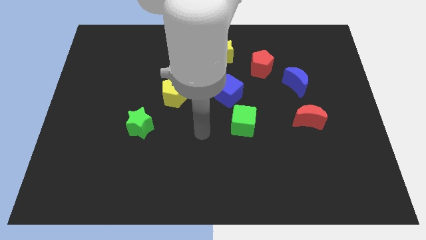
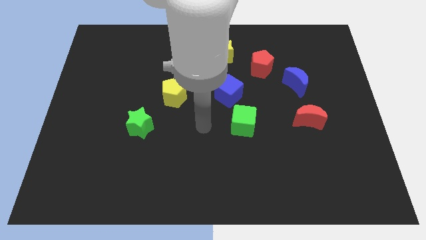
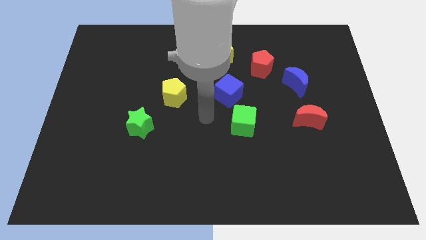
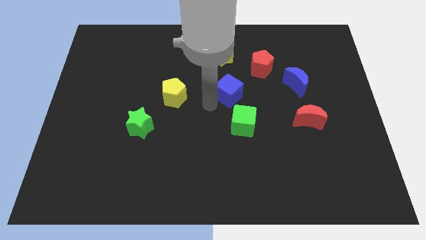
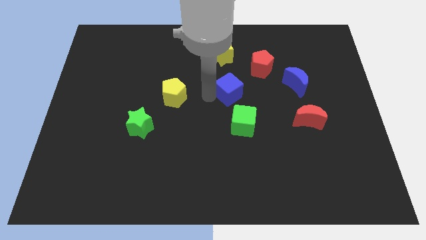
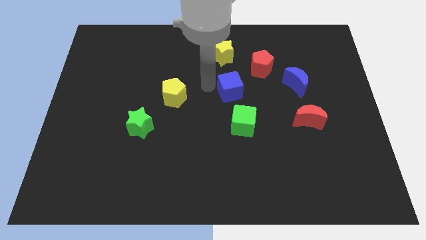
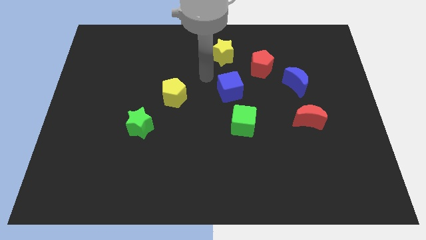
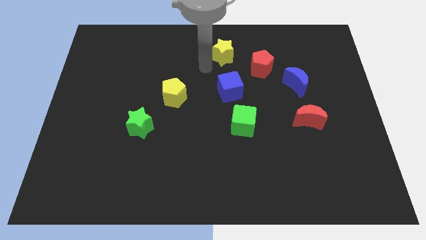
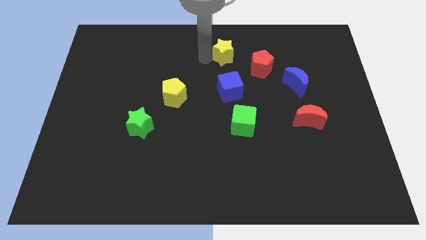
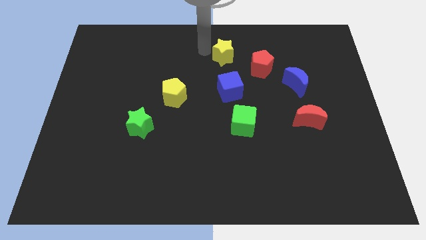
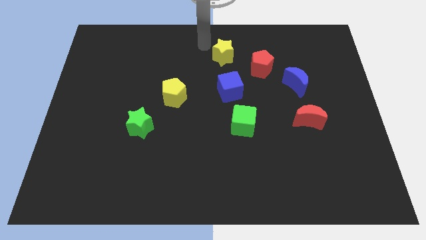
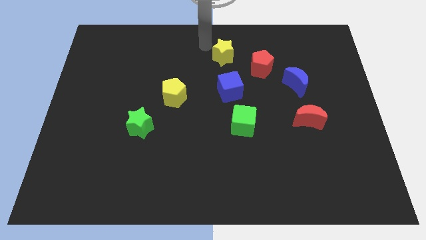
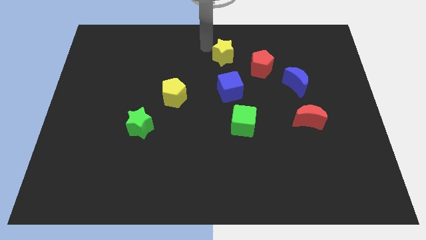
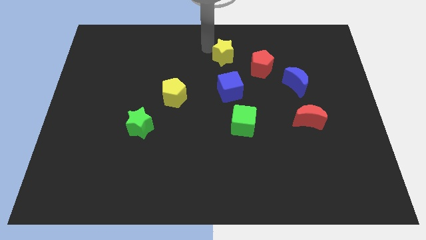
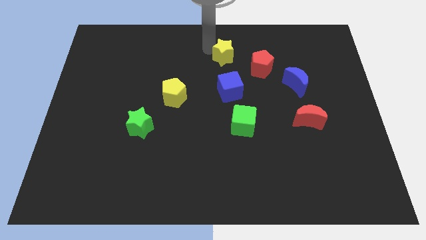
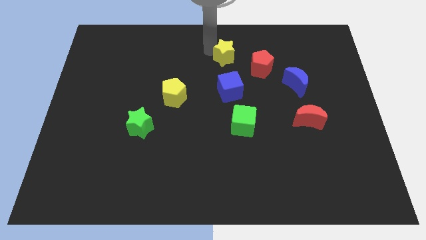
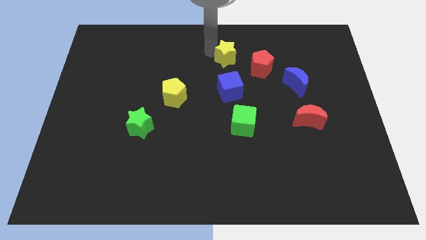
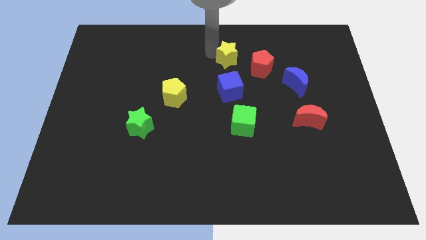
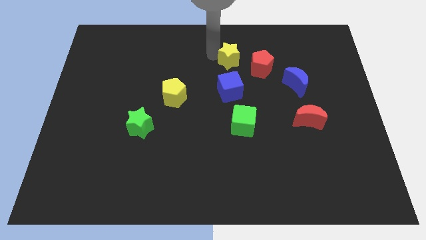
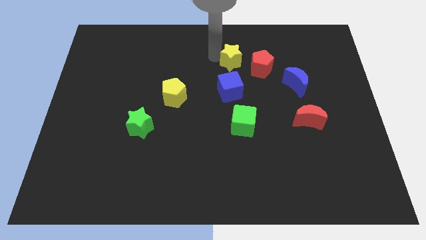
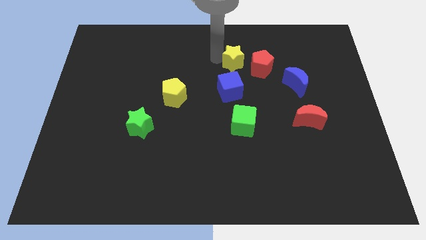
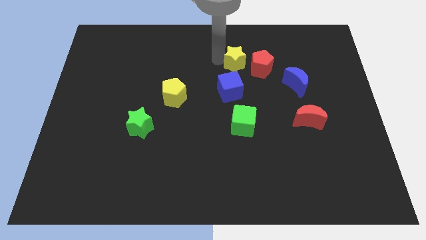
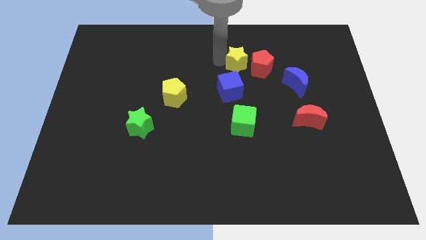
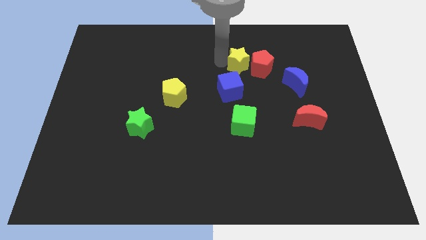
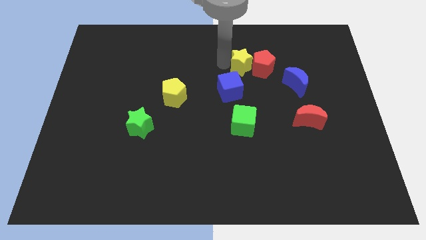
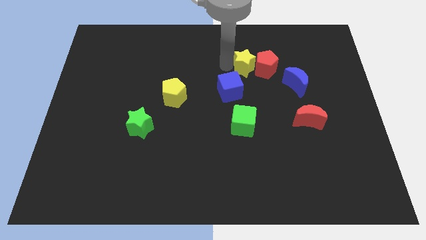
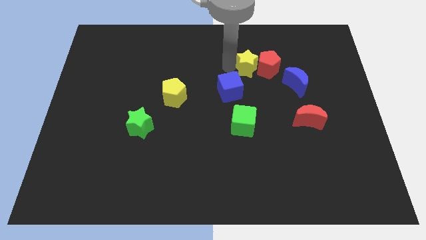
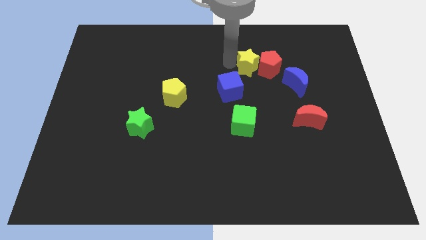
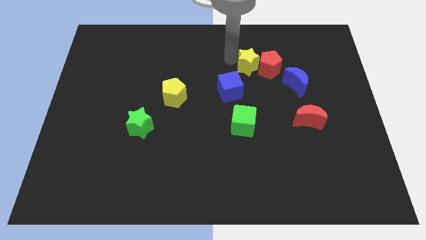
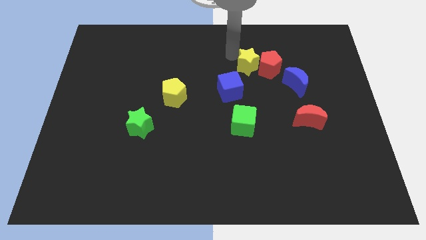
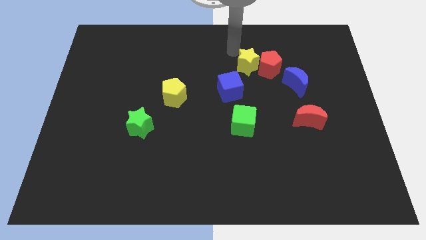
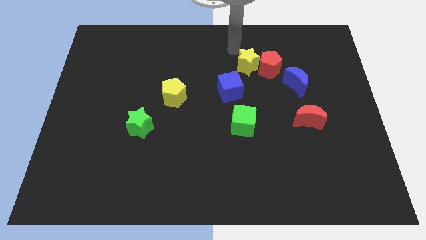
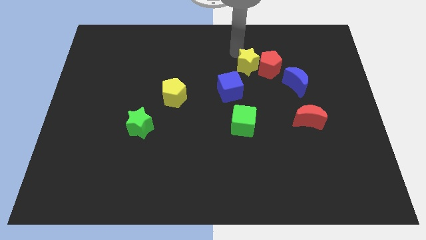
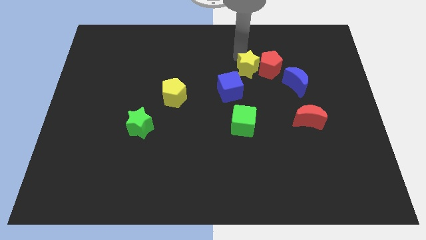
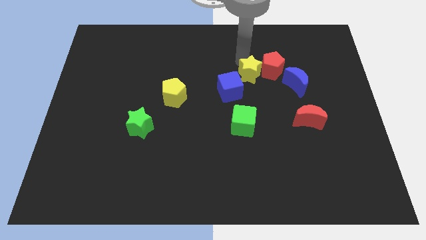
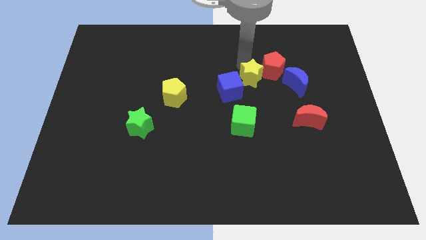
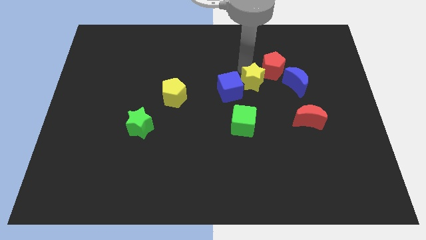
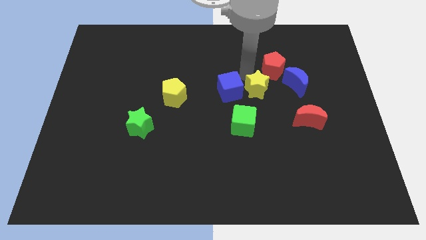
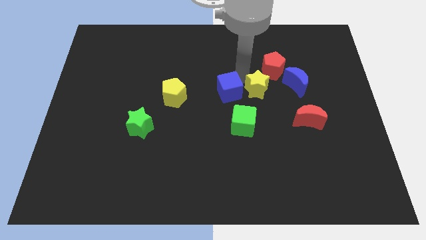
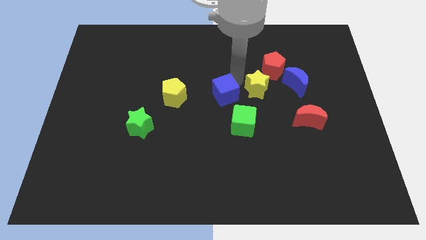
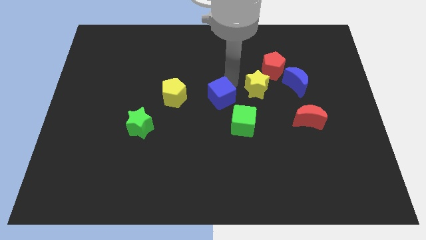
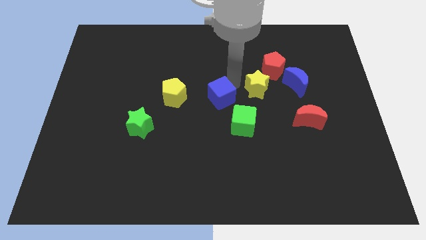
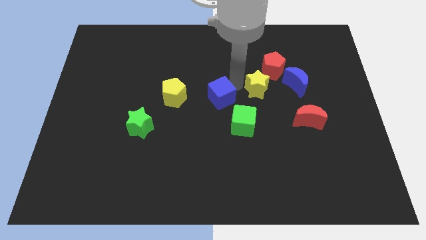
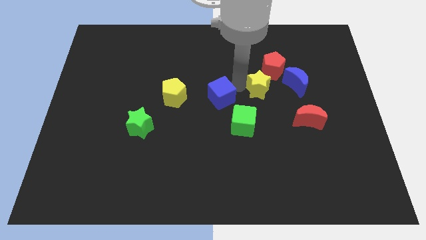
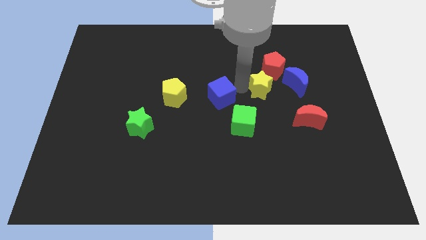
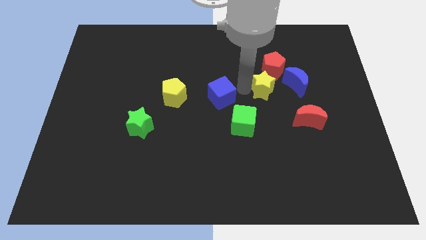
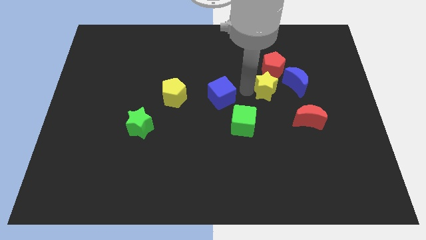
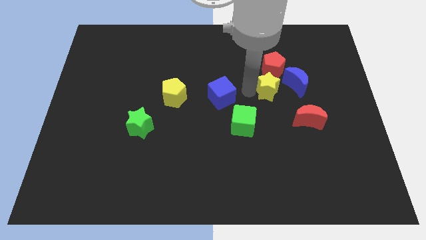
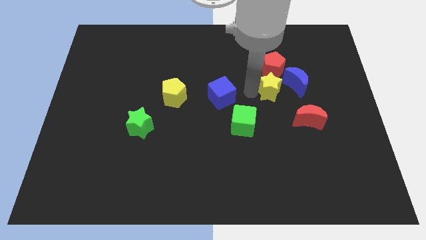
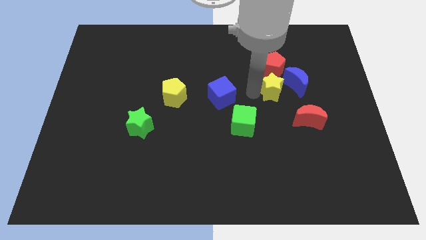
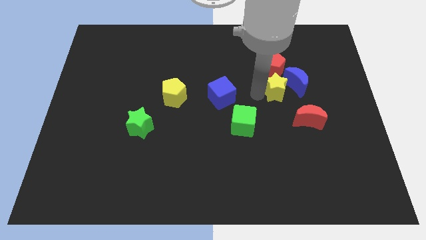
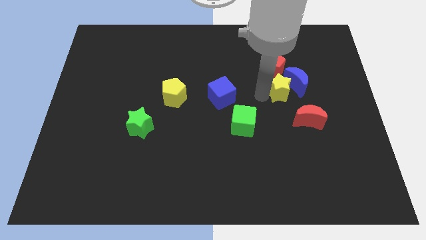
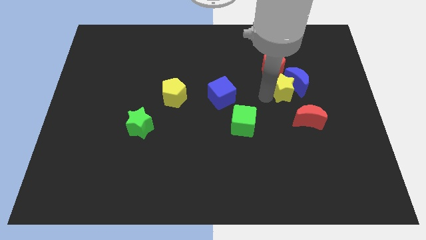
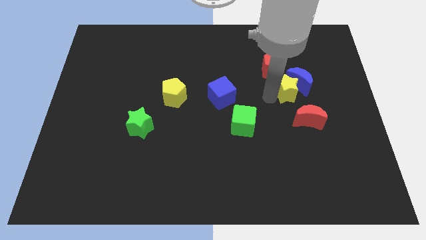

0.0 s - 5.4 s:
move the yellow star diagonally downwards and right

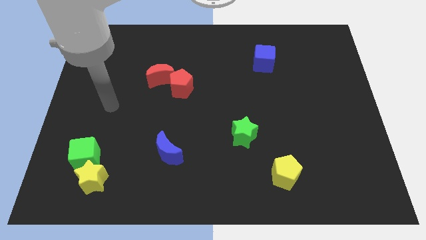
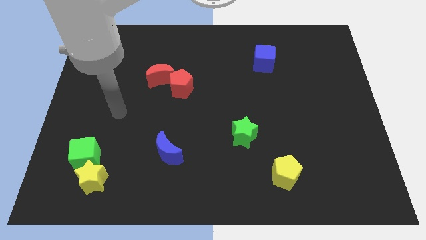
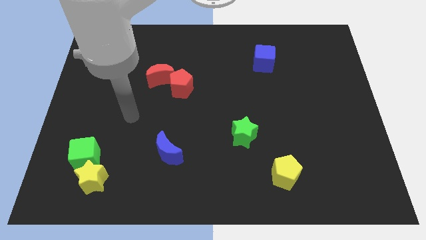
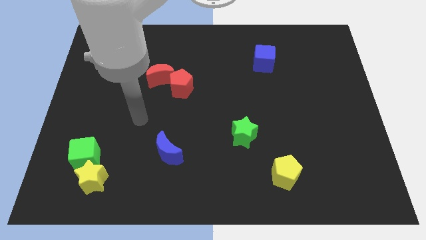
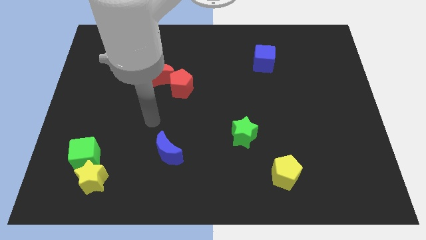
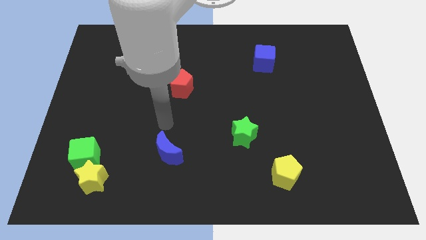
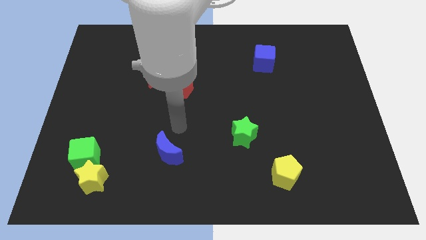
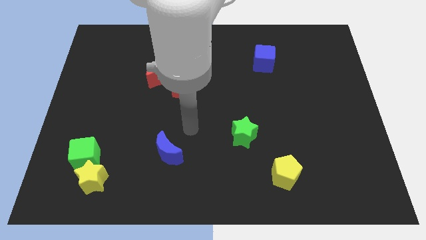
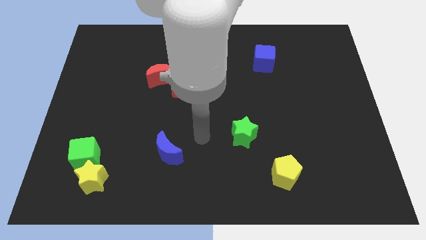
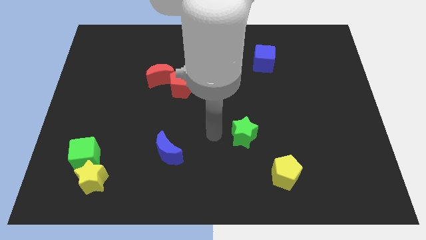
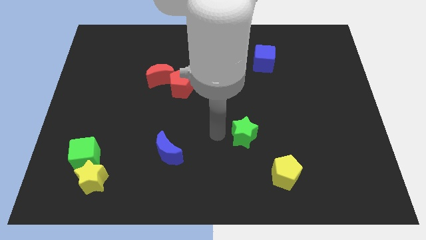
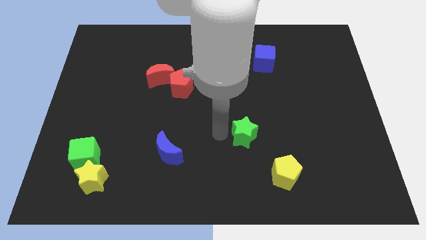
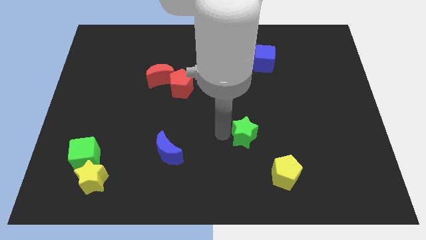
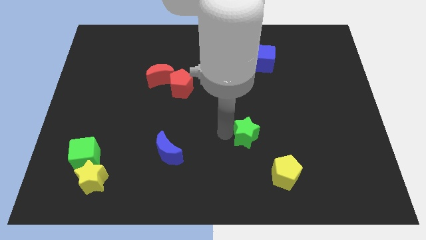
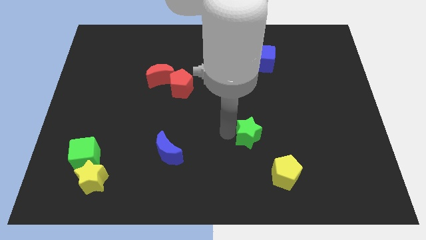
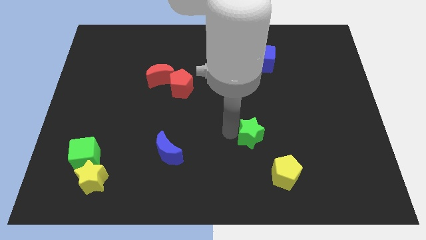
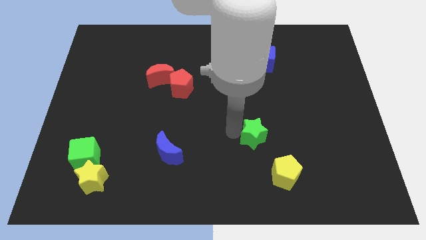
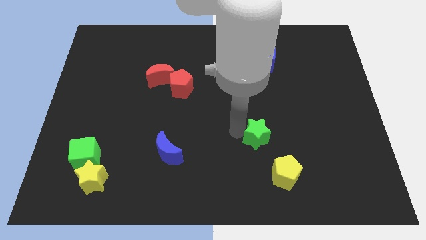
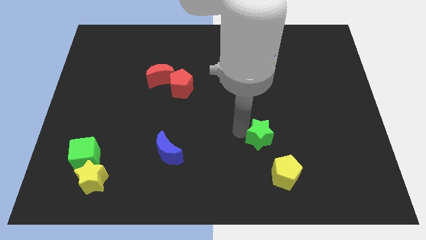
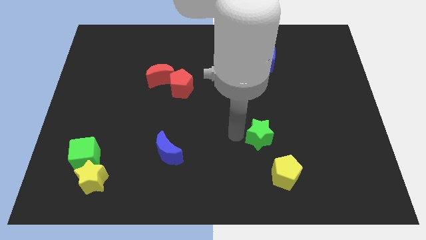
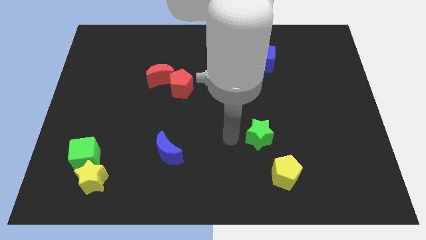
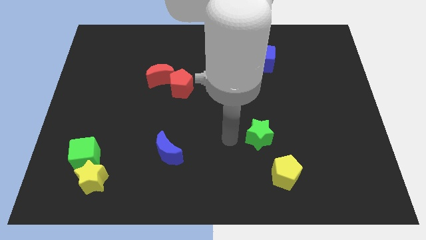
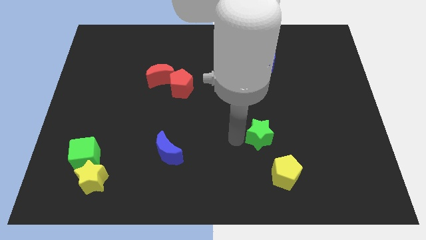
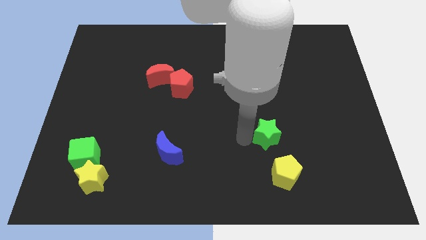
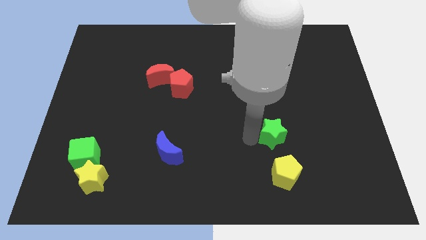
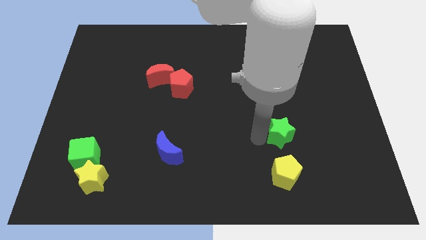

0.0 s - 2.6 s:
slightly push the green star to the right

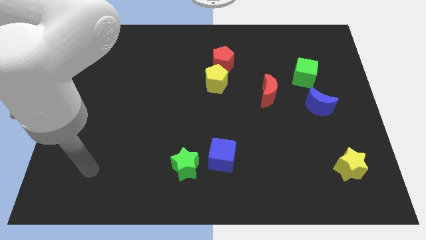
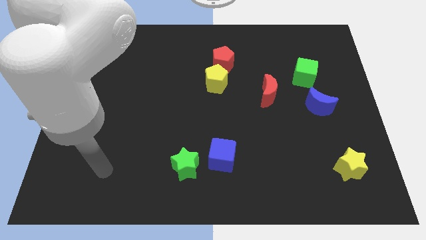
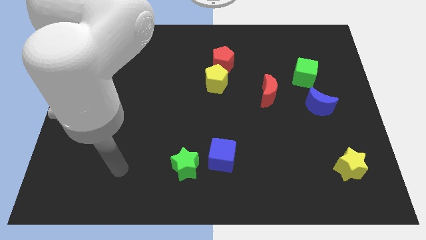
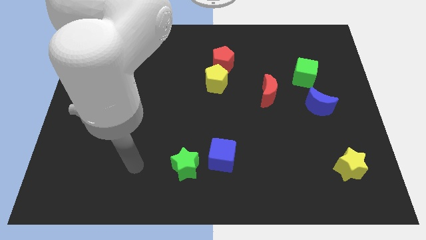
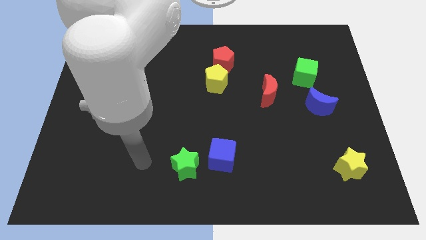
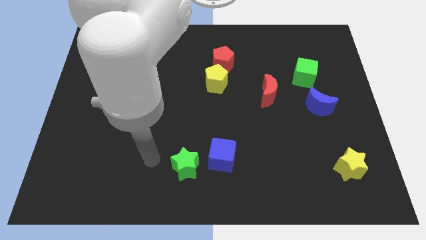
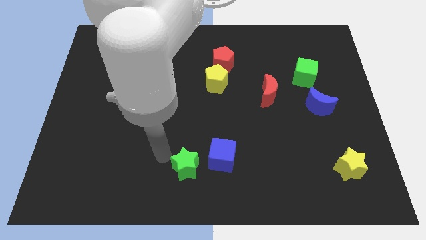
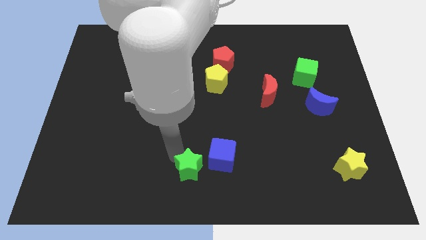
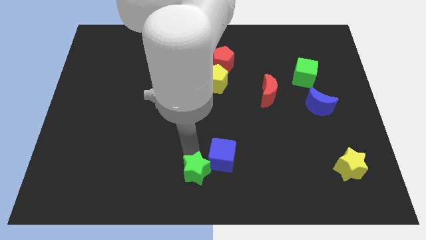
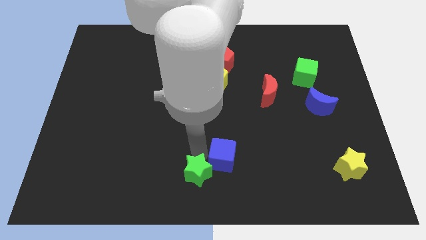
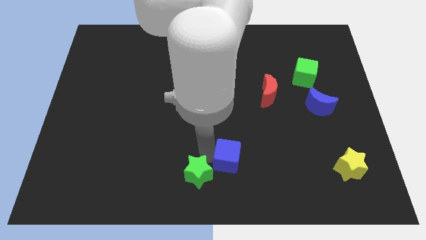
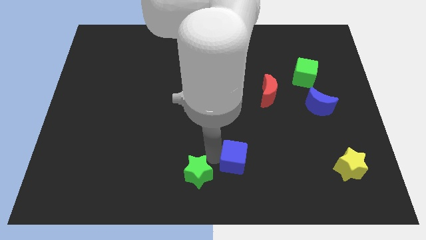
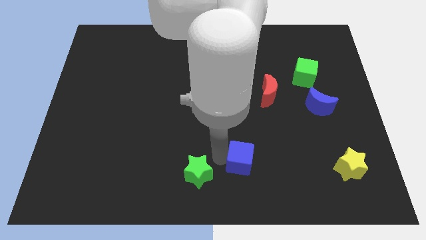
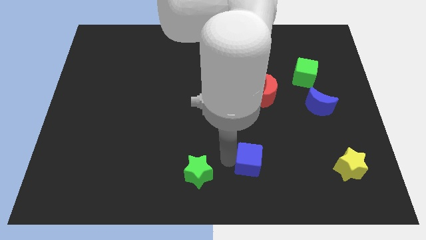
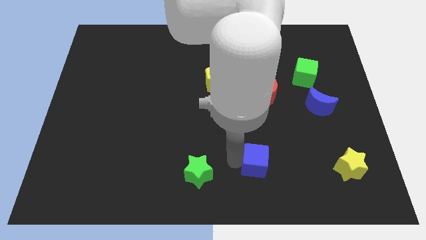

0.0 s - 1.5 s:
move the blue cube to the right somewhat
